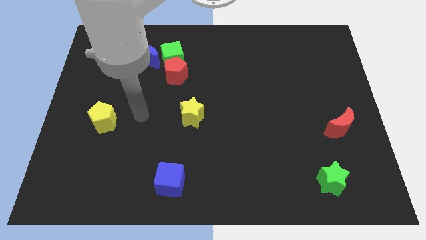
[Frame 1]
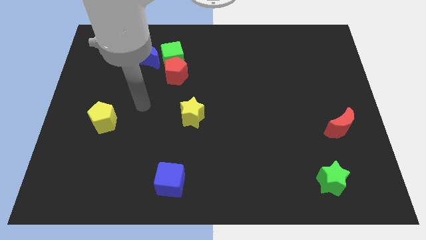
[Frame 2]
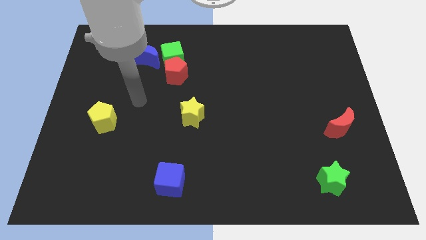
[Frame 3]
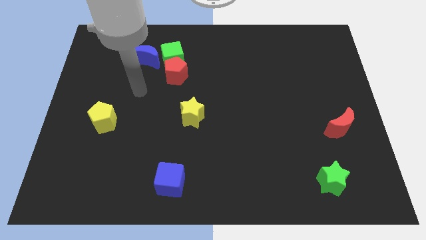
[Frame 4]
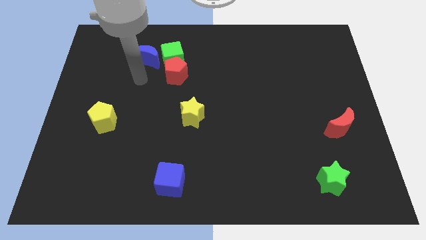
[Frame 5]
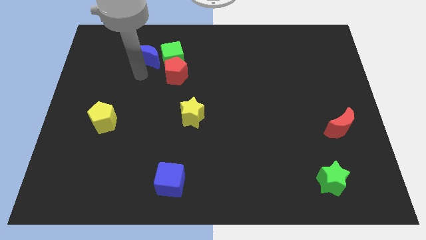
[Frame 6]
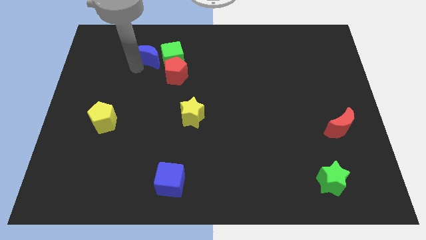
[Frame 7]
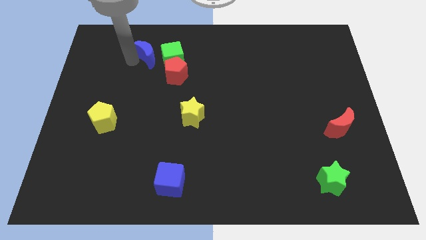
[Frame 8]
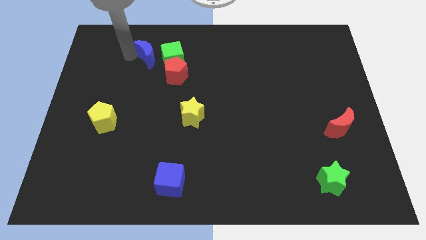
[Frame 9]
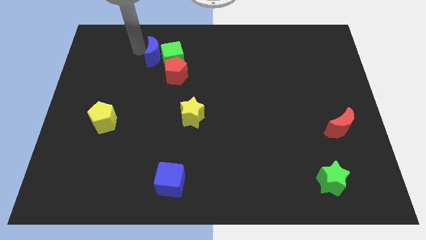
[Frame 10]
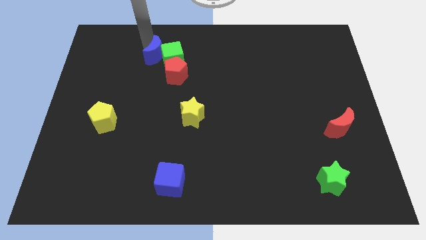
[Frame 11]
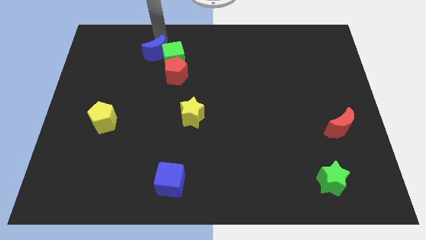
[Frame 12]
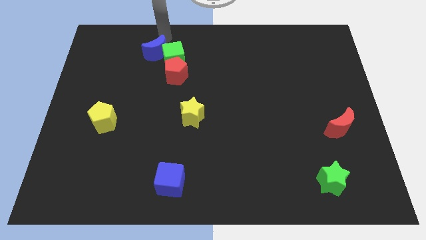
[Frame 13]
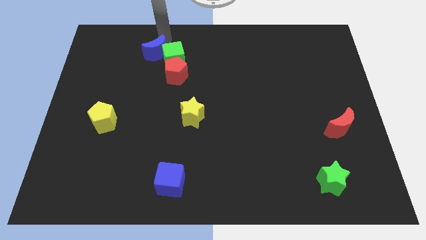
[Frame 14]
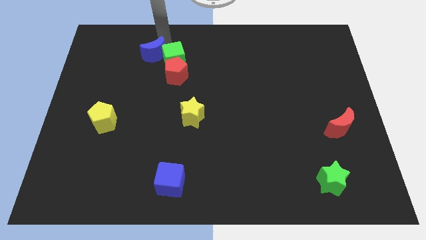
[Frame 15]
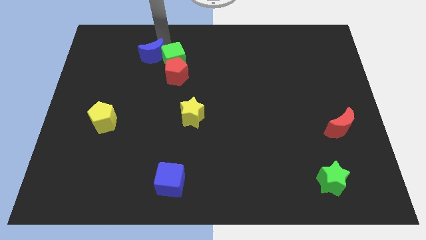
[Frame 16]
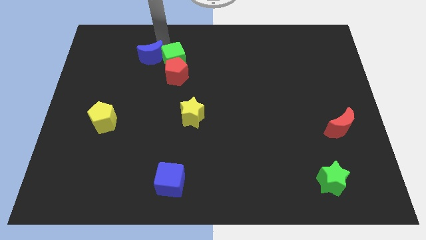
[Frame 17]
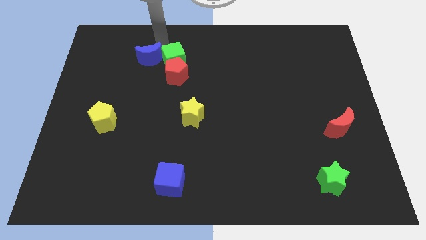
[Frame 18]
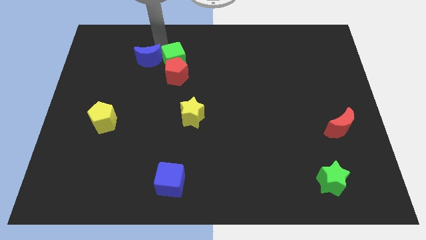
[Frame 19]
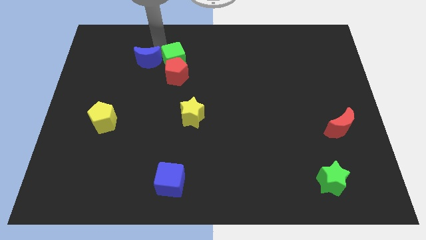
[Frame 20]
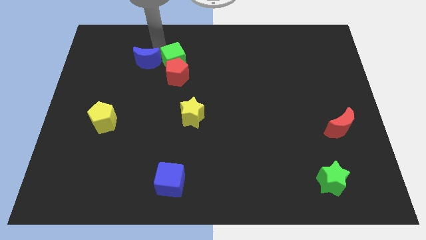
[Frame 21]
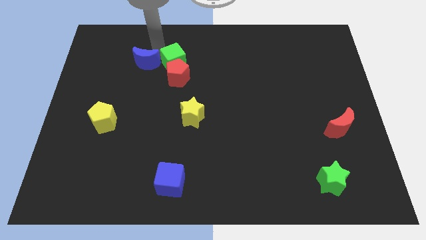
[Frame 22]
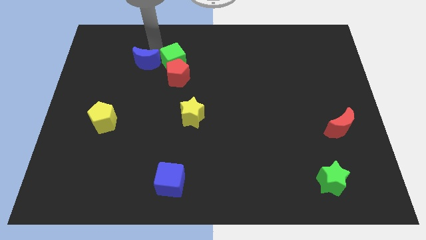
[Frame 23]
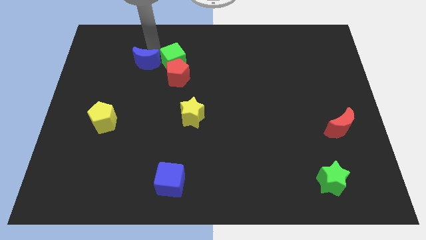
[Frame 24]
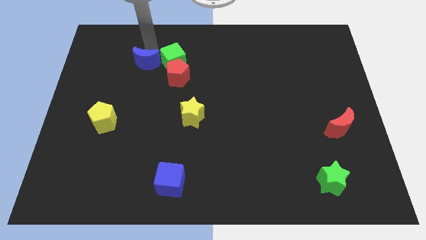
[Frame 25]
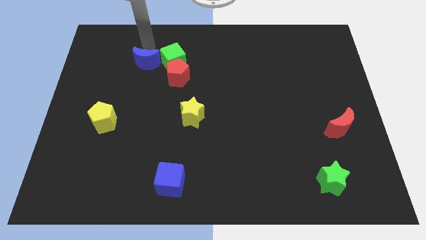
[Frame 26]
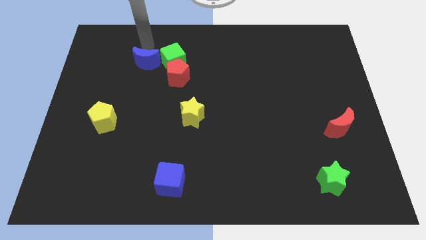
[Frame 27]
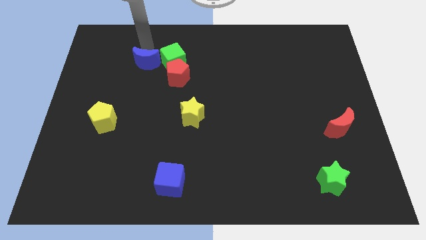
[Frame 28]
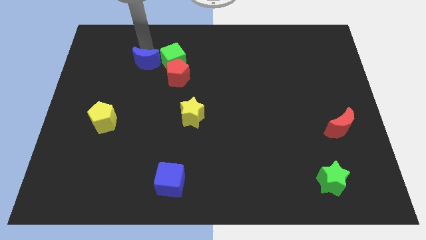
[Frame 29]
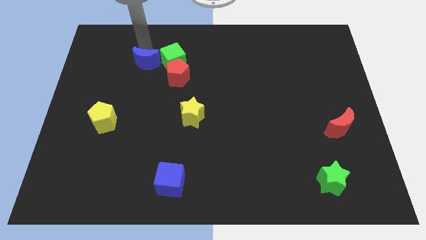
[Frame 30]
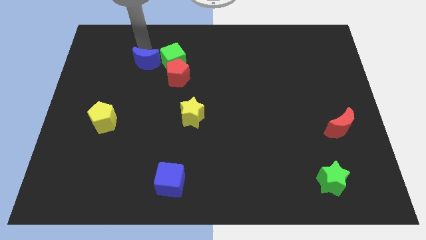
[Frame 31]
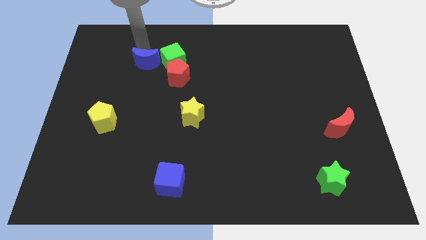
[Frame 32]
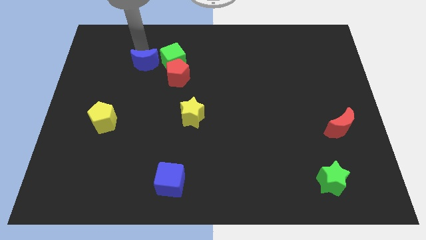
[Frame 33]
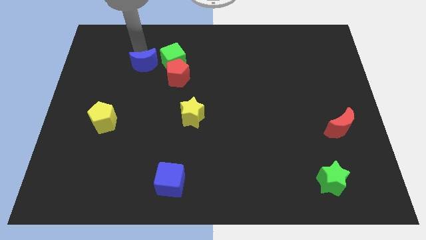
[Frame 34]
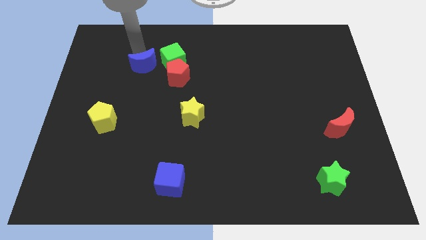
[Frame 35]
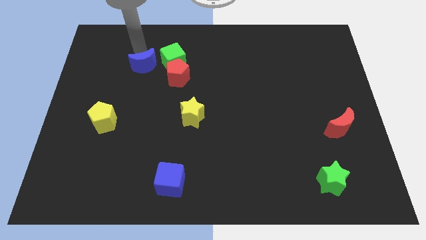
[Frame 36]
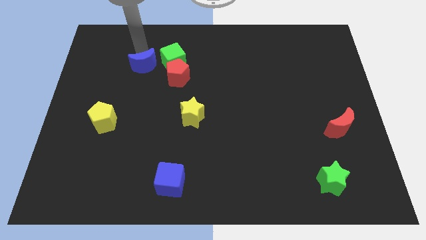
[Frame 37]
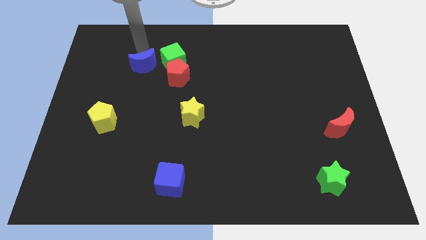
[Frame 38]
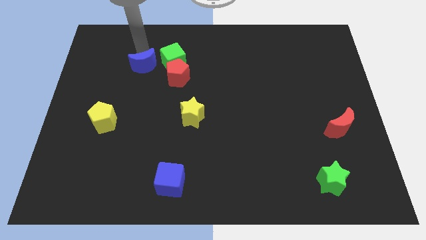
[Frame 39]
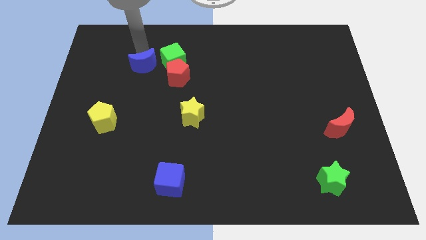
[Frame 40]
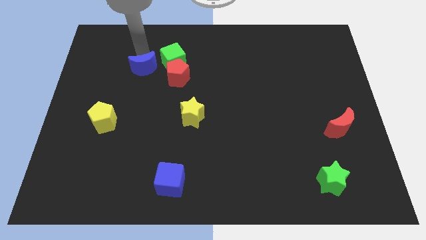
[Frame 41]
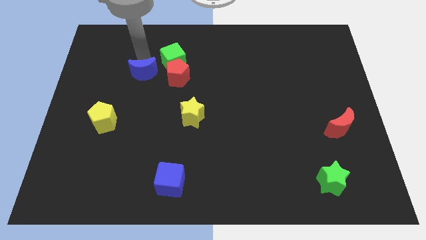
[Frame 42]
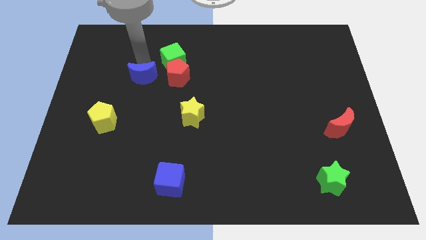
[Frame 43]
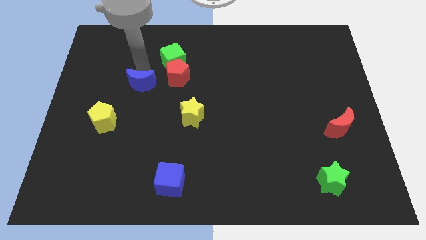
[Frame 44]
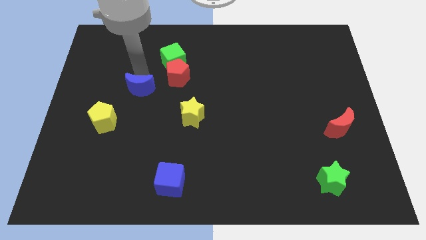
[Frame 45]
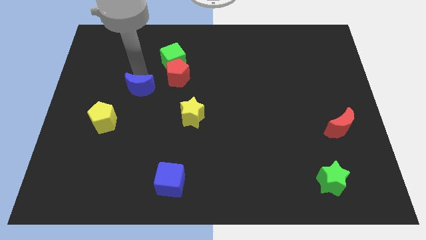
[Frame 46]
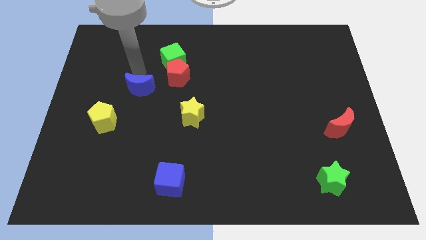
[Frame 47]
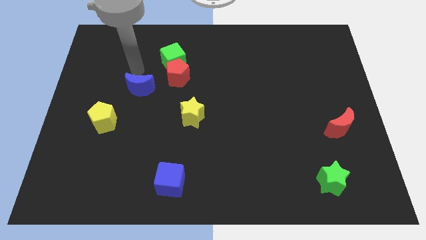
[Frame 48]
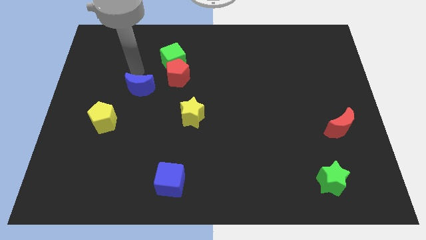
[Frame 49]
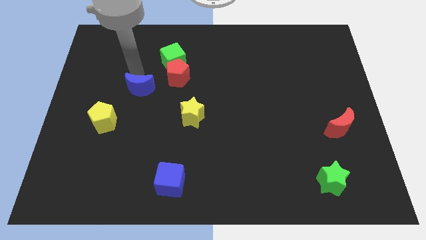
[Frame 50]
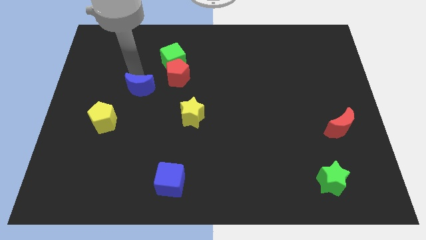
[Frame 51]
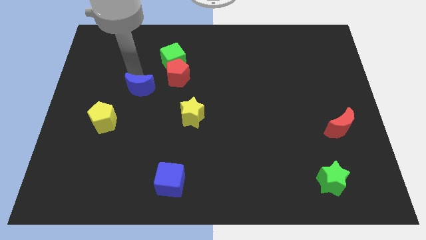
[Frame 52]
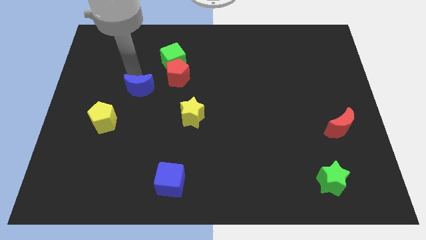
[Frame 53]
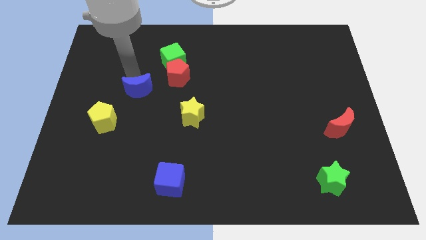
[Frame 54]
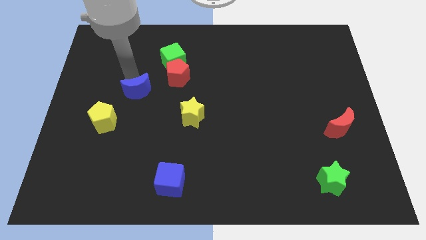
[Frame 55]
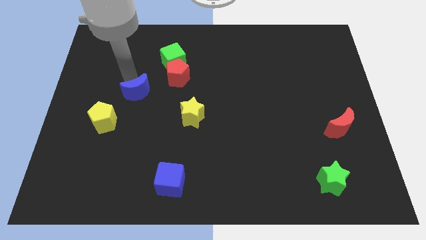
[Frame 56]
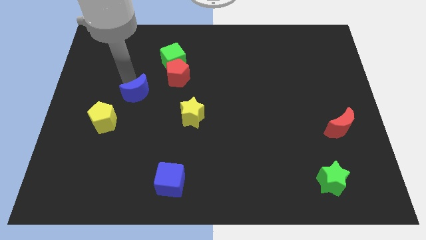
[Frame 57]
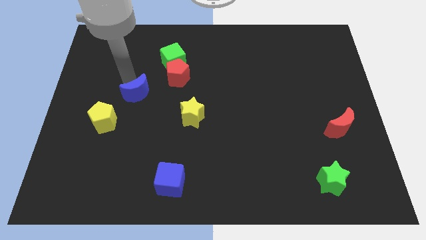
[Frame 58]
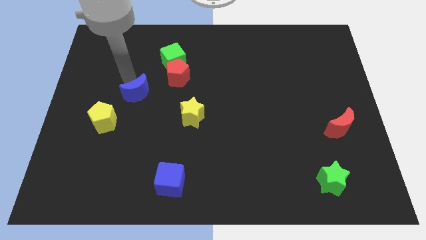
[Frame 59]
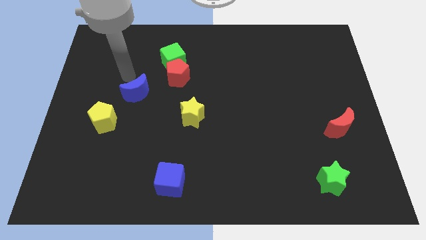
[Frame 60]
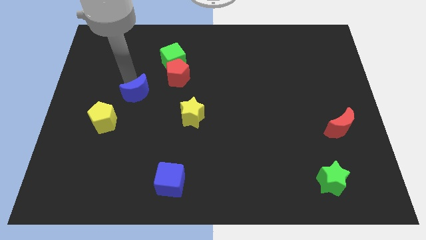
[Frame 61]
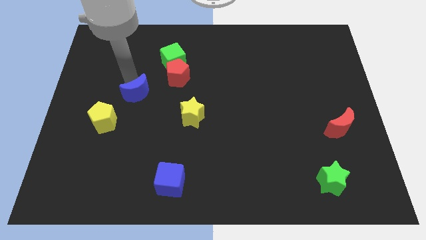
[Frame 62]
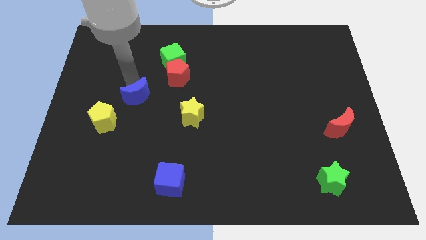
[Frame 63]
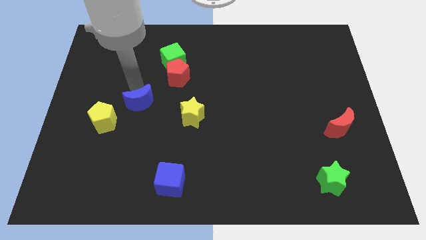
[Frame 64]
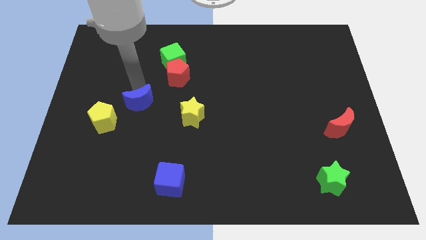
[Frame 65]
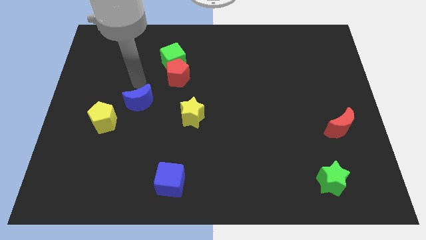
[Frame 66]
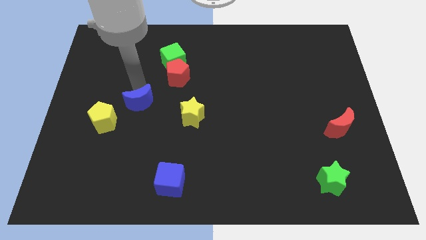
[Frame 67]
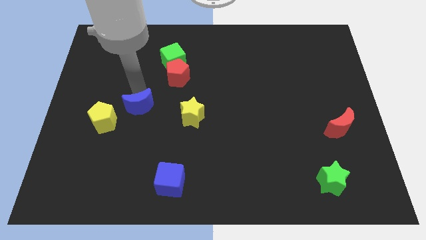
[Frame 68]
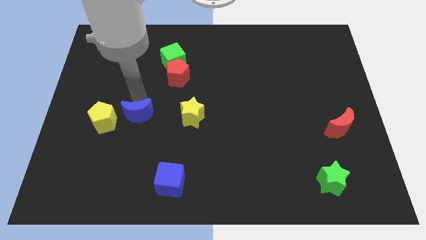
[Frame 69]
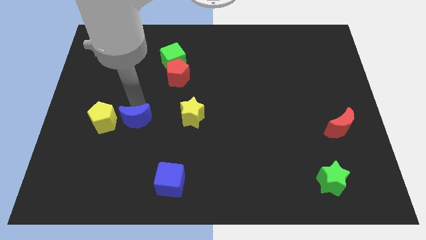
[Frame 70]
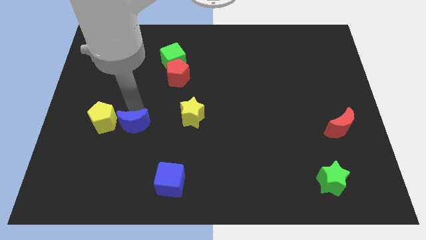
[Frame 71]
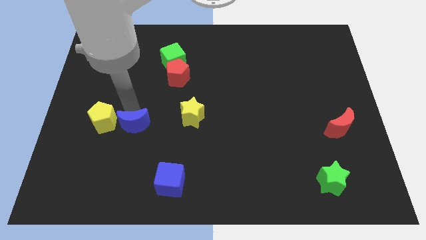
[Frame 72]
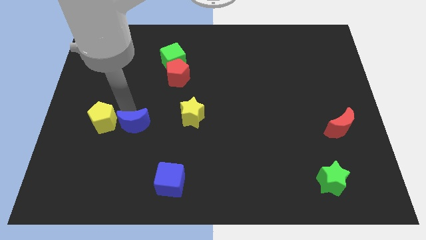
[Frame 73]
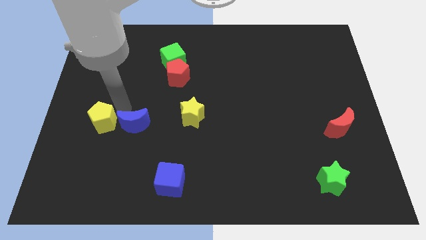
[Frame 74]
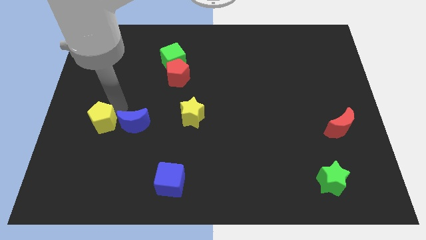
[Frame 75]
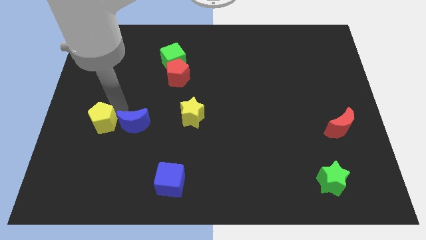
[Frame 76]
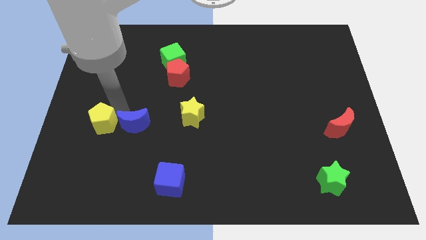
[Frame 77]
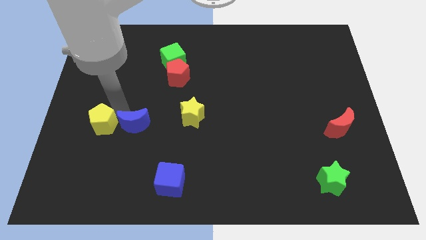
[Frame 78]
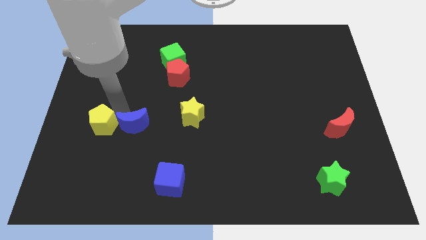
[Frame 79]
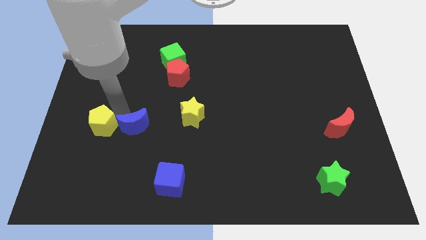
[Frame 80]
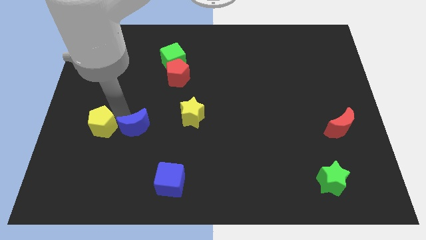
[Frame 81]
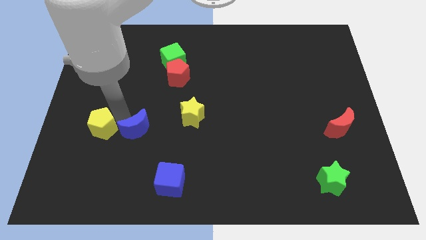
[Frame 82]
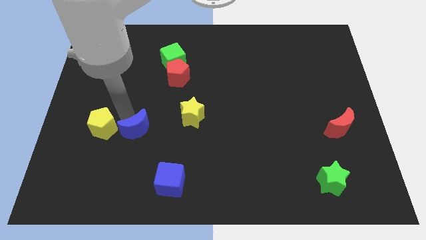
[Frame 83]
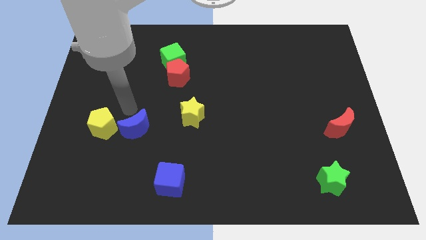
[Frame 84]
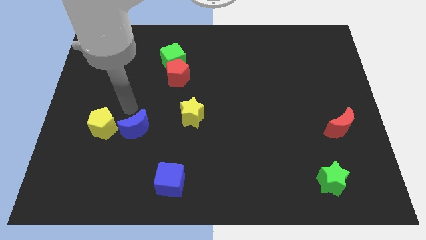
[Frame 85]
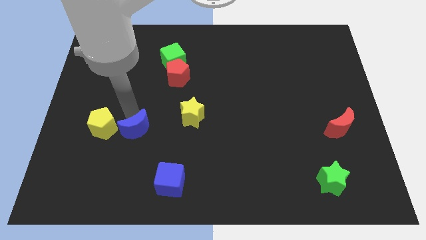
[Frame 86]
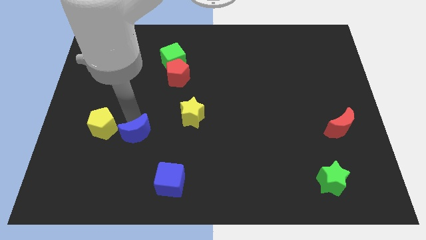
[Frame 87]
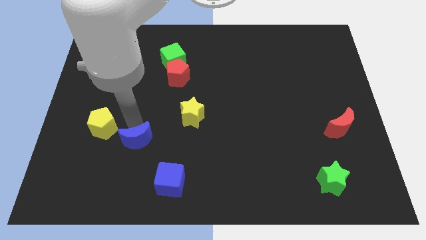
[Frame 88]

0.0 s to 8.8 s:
put the blue moon diagonally up and to the left of the blue cube
